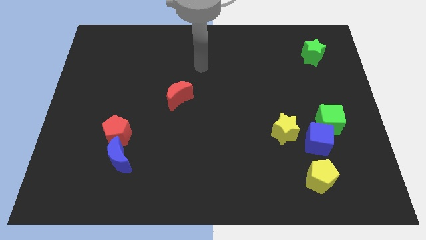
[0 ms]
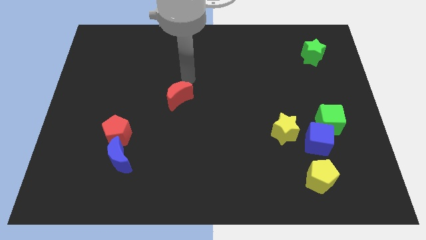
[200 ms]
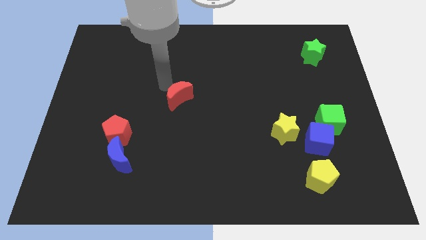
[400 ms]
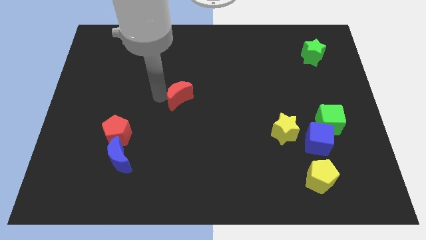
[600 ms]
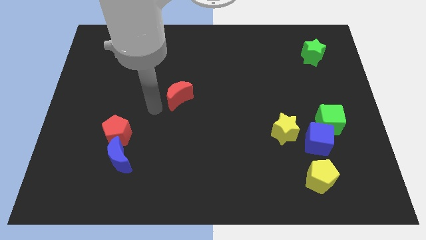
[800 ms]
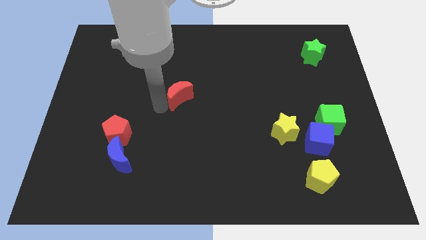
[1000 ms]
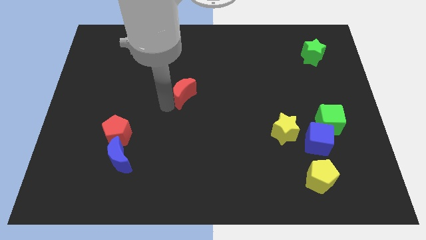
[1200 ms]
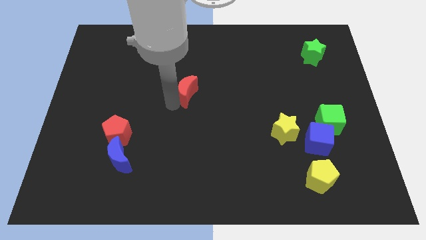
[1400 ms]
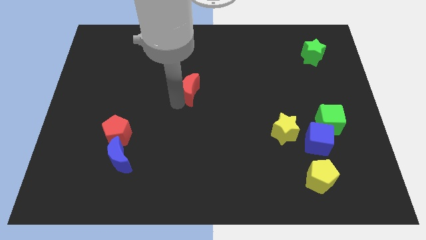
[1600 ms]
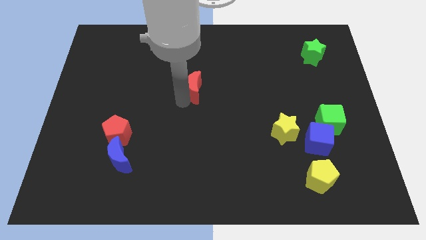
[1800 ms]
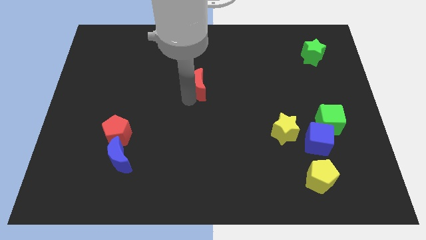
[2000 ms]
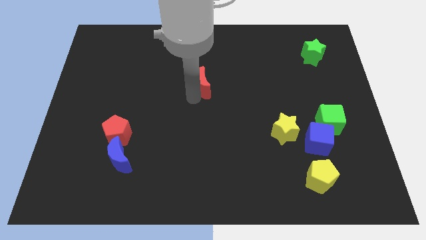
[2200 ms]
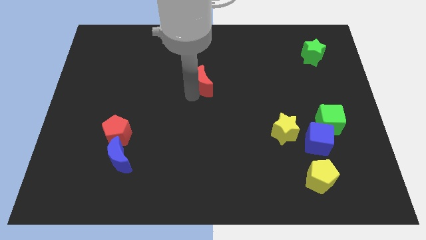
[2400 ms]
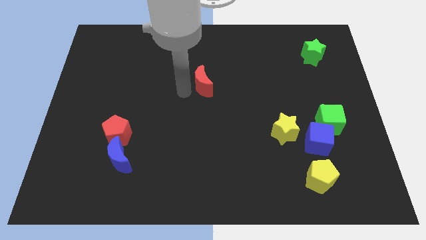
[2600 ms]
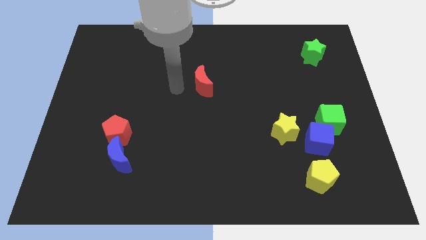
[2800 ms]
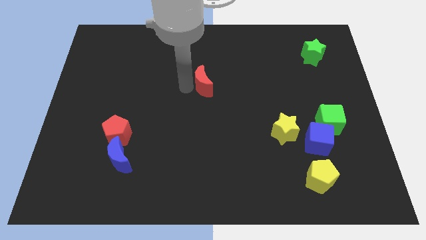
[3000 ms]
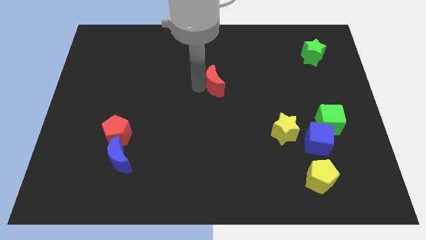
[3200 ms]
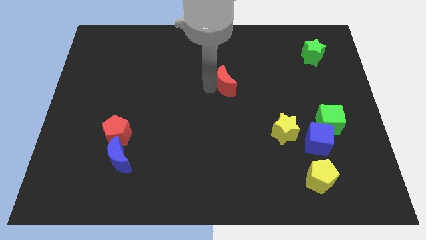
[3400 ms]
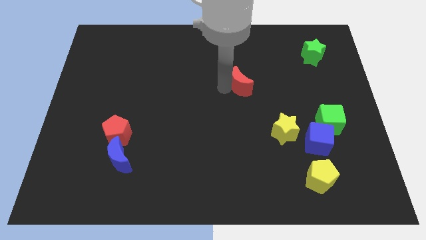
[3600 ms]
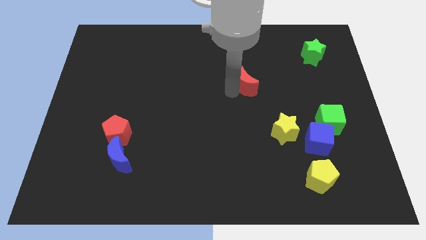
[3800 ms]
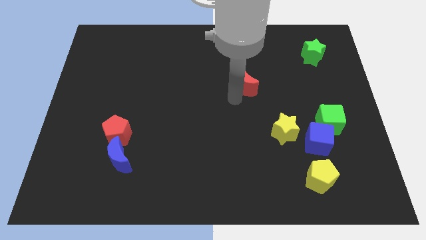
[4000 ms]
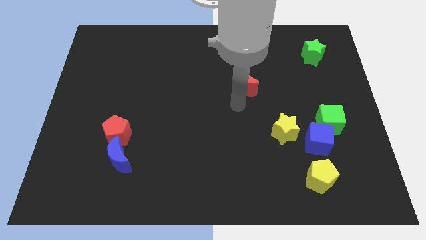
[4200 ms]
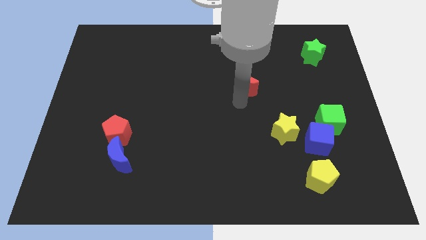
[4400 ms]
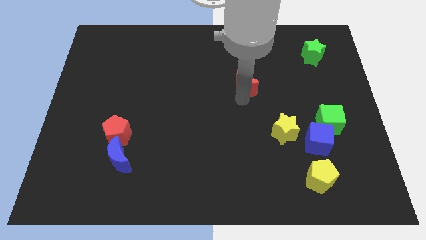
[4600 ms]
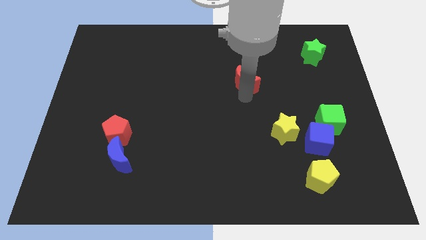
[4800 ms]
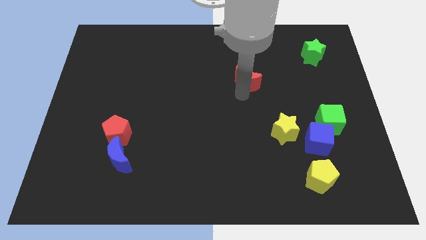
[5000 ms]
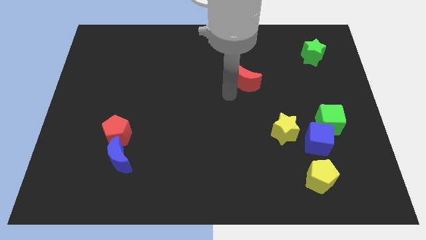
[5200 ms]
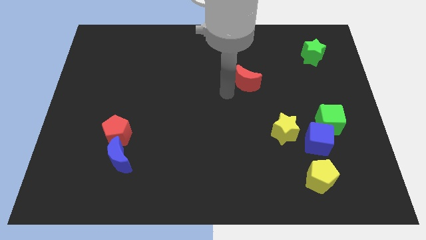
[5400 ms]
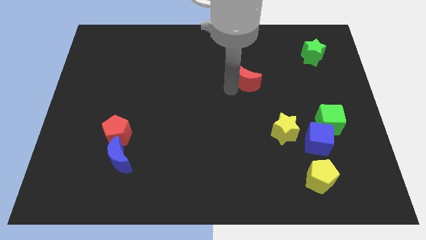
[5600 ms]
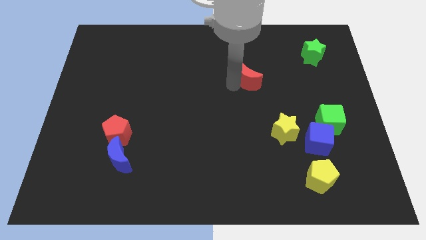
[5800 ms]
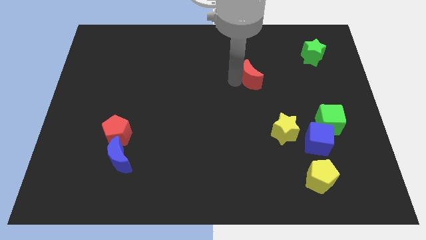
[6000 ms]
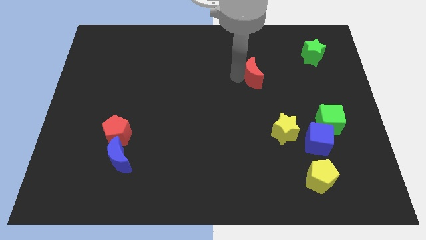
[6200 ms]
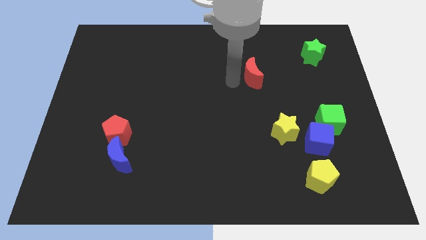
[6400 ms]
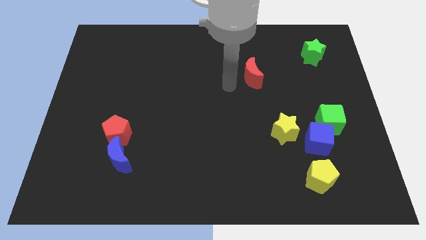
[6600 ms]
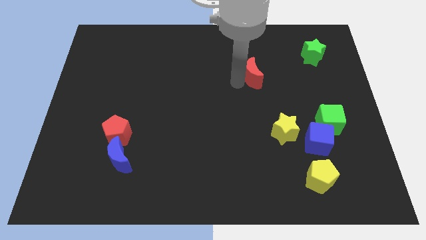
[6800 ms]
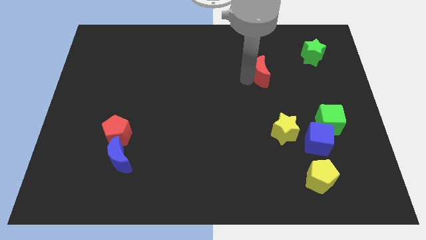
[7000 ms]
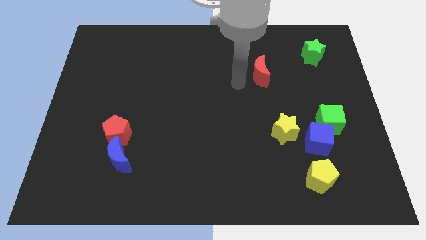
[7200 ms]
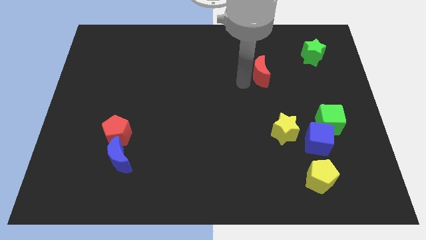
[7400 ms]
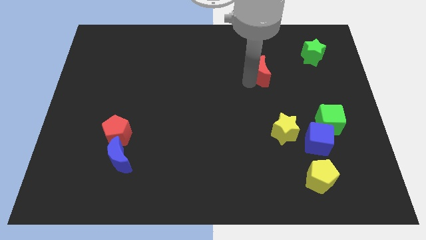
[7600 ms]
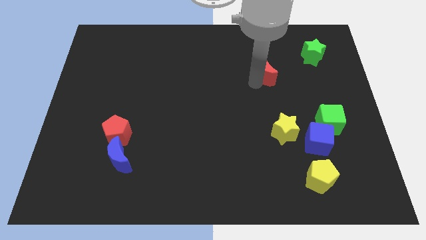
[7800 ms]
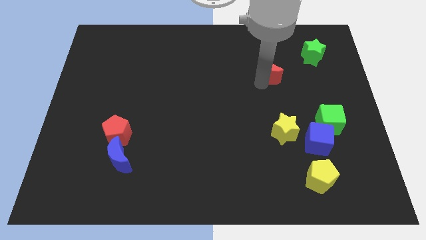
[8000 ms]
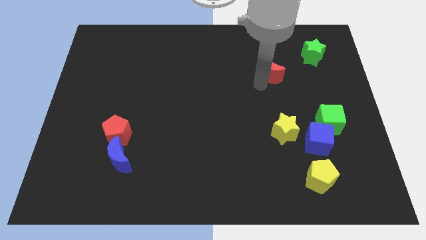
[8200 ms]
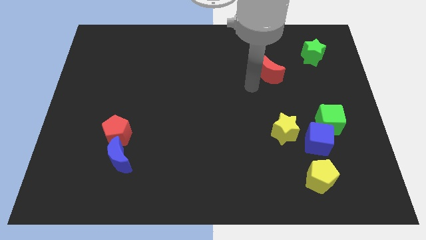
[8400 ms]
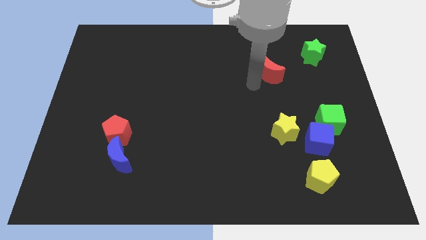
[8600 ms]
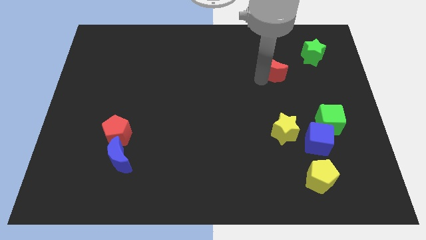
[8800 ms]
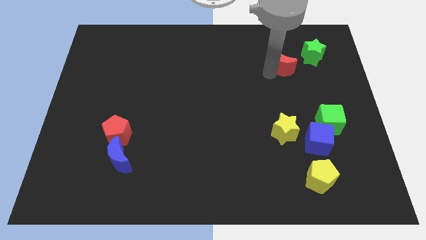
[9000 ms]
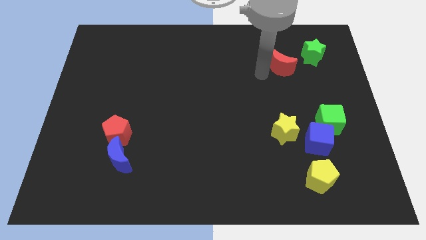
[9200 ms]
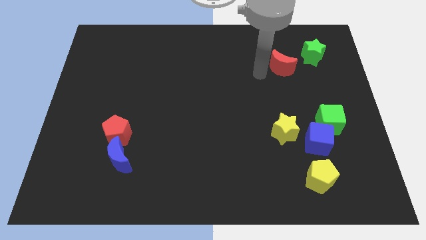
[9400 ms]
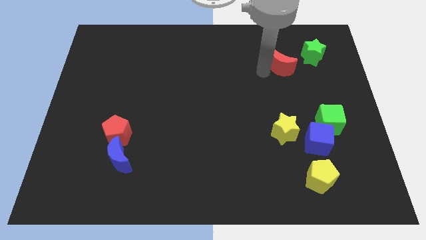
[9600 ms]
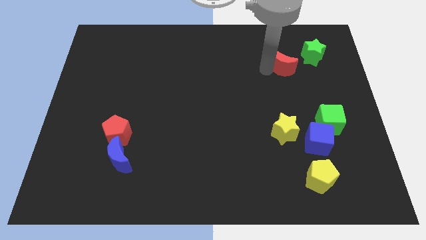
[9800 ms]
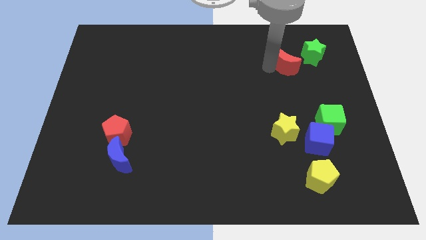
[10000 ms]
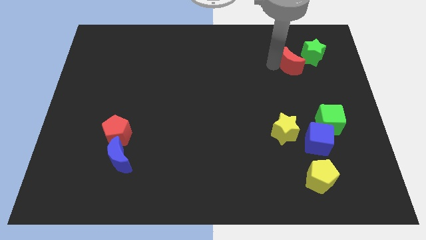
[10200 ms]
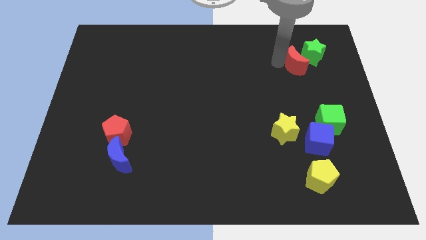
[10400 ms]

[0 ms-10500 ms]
push the red moon towards the green star

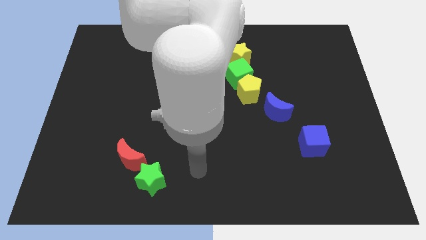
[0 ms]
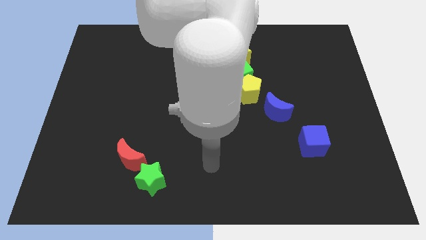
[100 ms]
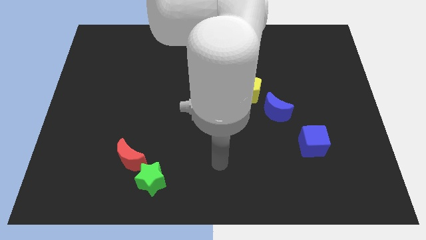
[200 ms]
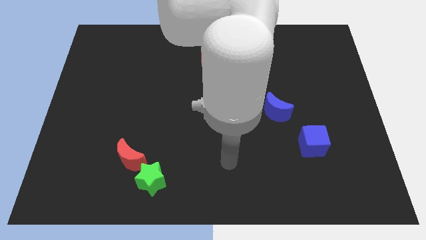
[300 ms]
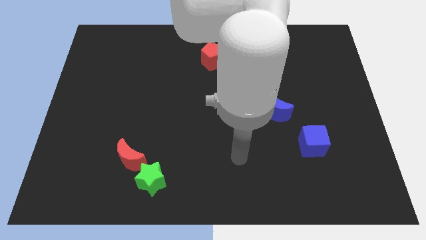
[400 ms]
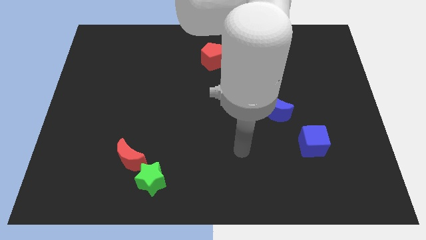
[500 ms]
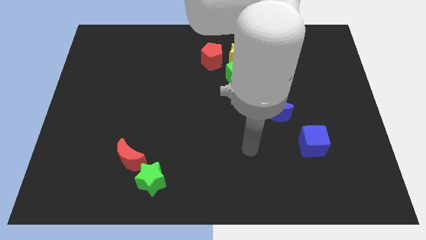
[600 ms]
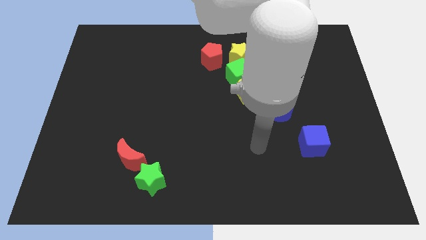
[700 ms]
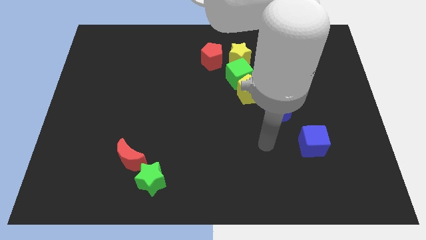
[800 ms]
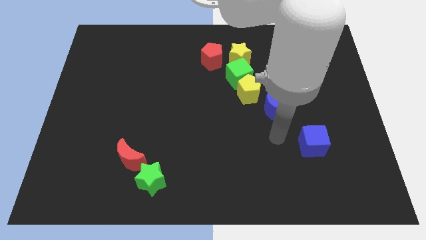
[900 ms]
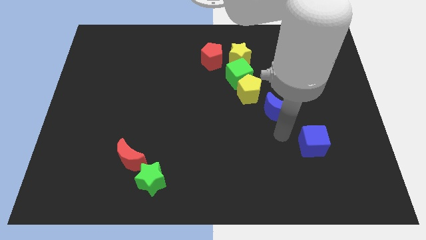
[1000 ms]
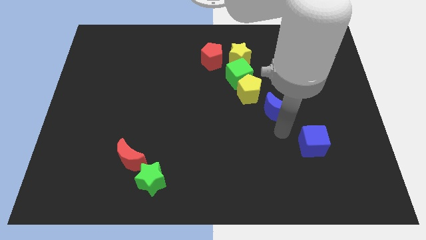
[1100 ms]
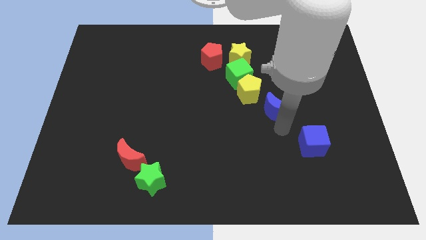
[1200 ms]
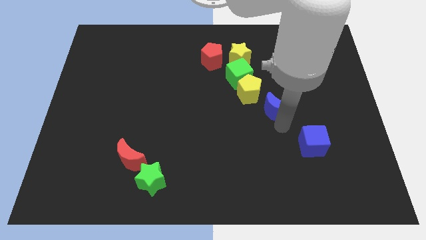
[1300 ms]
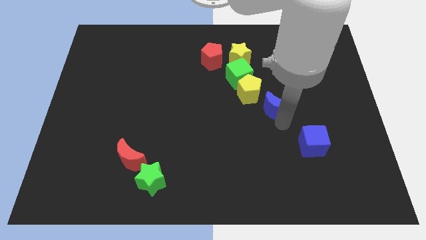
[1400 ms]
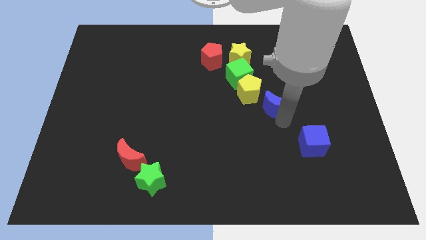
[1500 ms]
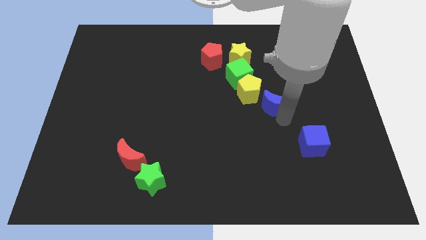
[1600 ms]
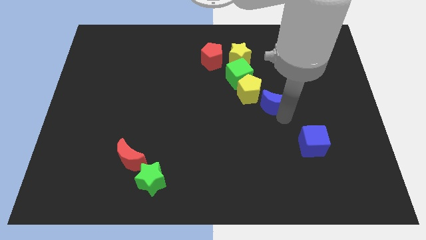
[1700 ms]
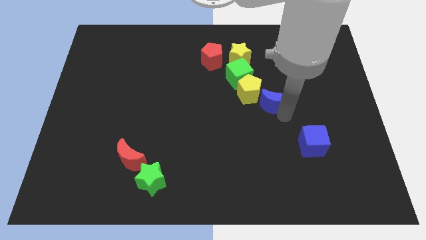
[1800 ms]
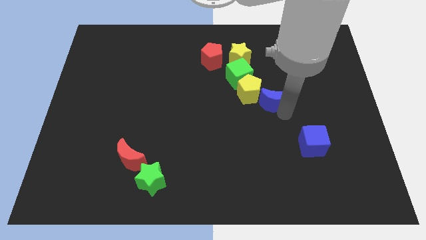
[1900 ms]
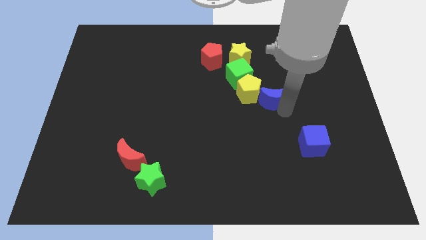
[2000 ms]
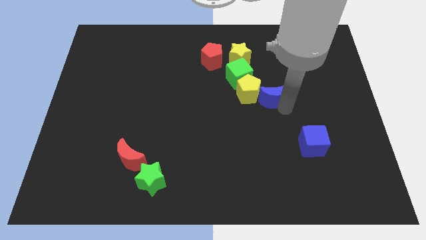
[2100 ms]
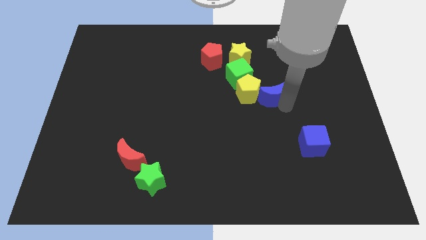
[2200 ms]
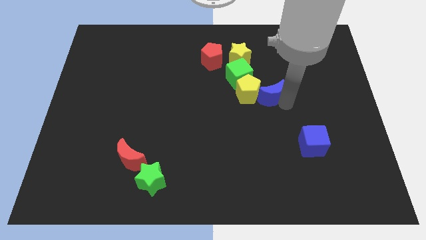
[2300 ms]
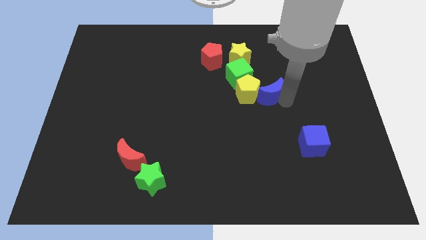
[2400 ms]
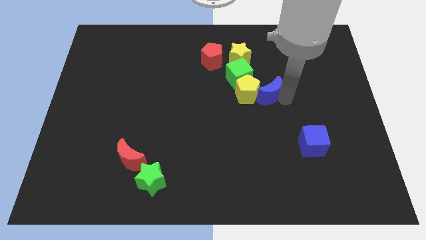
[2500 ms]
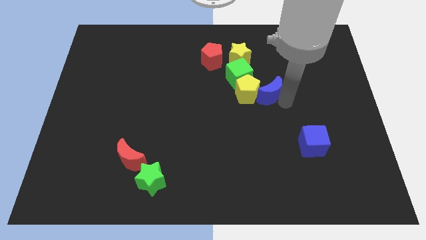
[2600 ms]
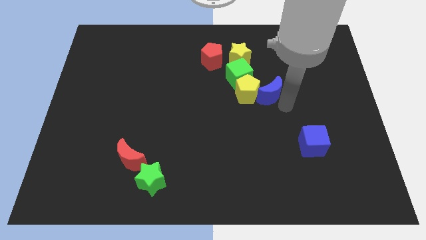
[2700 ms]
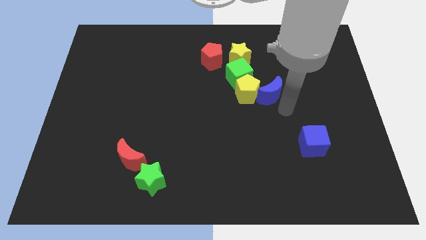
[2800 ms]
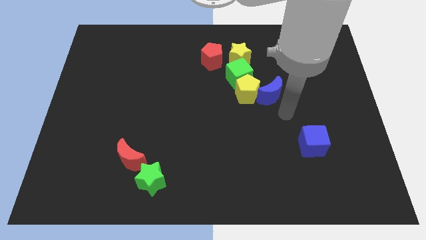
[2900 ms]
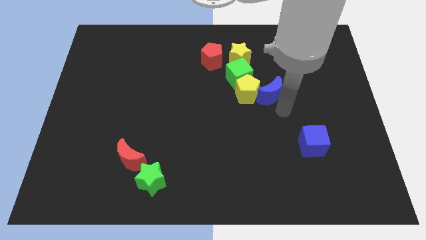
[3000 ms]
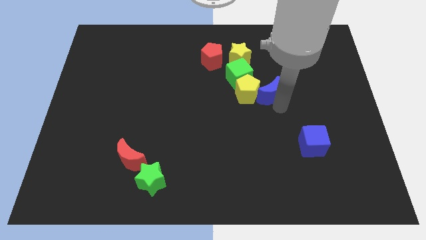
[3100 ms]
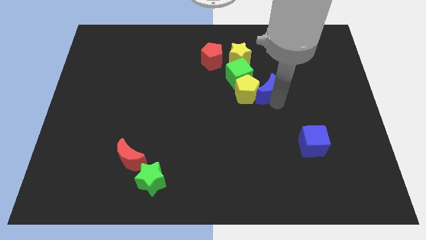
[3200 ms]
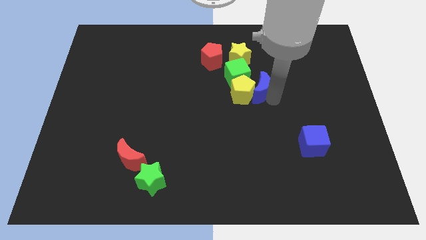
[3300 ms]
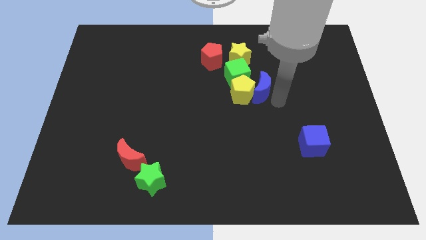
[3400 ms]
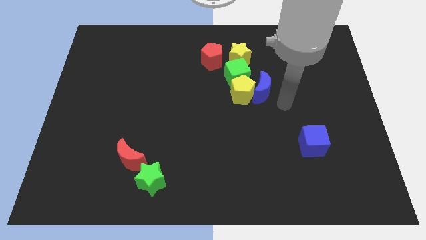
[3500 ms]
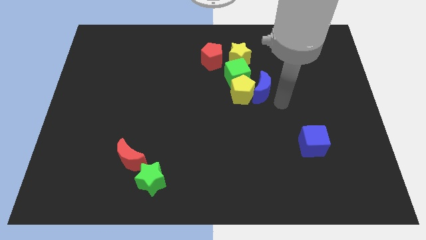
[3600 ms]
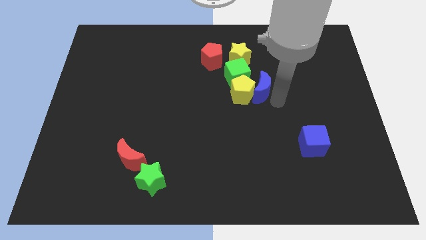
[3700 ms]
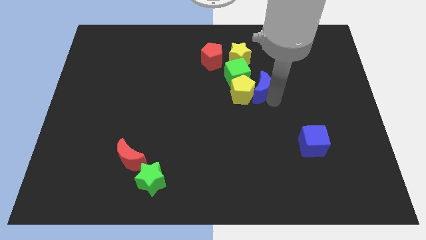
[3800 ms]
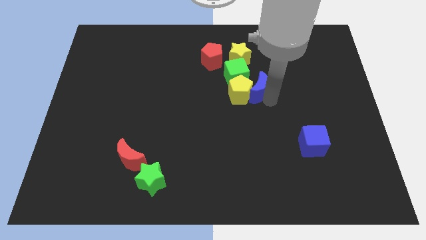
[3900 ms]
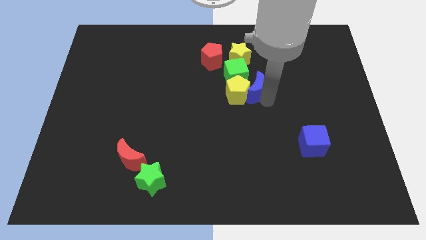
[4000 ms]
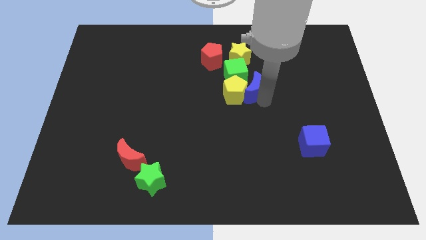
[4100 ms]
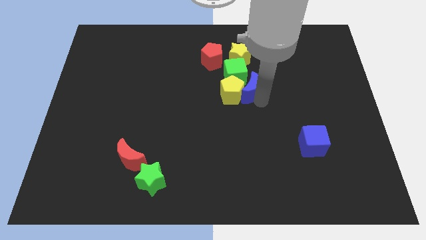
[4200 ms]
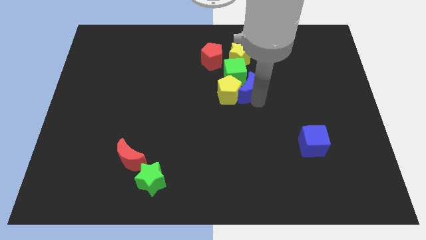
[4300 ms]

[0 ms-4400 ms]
put the blue moon next to the green cube
